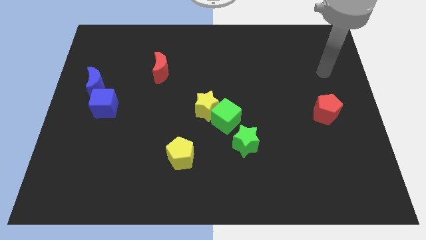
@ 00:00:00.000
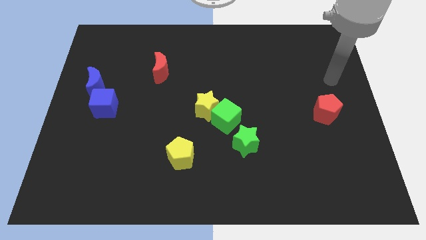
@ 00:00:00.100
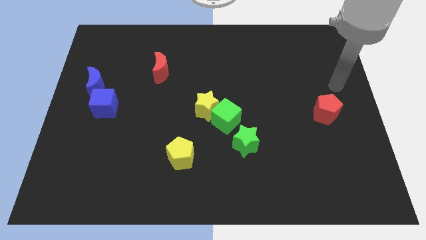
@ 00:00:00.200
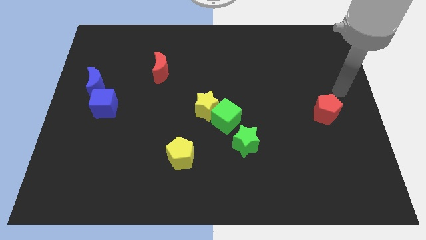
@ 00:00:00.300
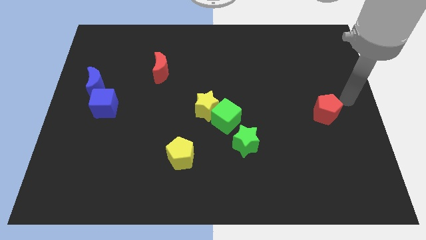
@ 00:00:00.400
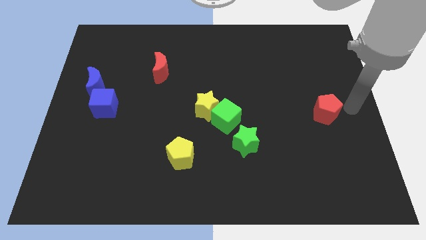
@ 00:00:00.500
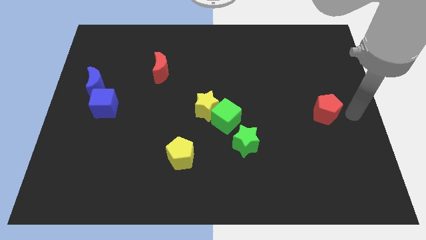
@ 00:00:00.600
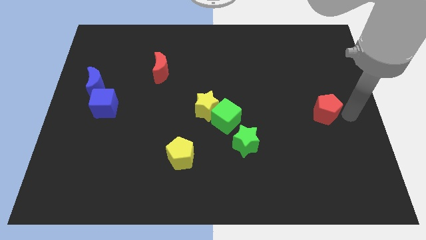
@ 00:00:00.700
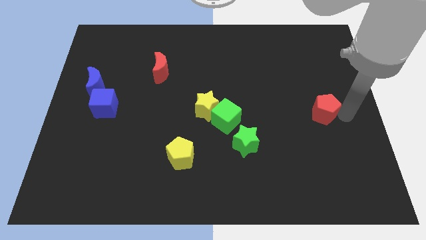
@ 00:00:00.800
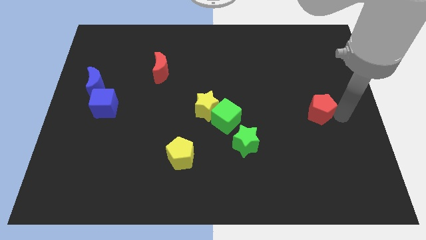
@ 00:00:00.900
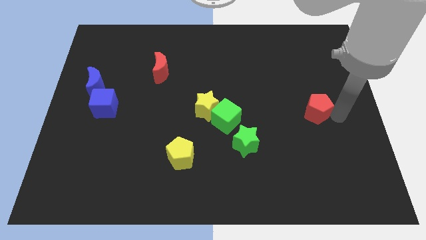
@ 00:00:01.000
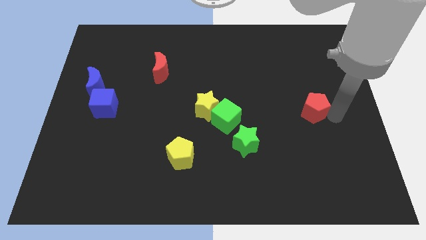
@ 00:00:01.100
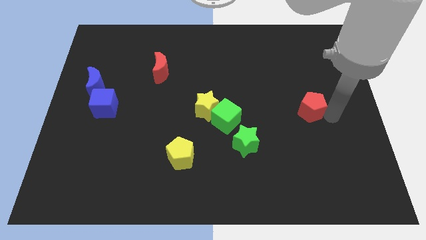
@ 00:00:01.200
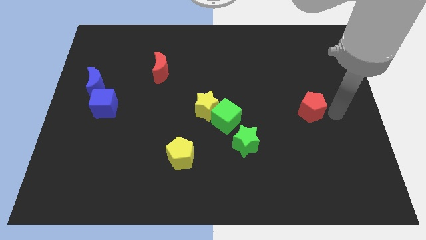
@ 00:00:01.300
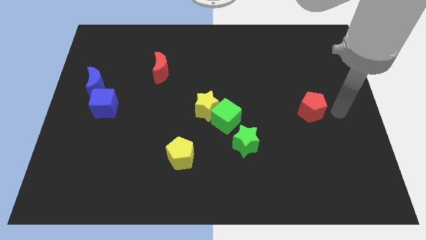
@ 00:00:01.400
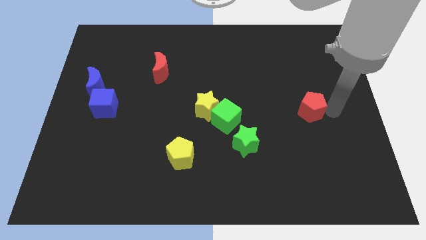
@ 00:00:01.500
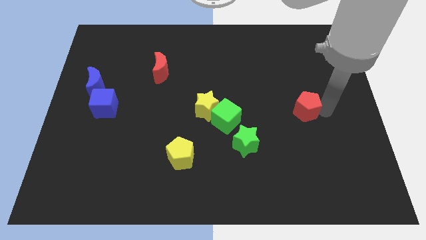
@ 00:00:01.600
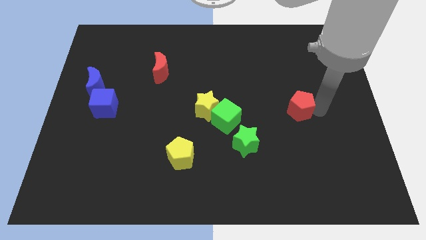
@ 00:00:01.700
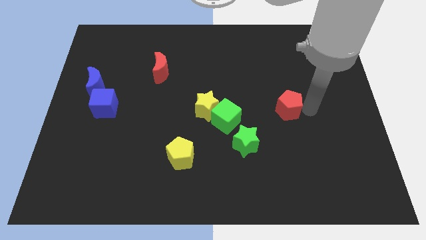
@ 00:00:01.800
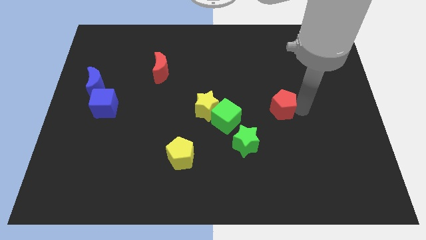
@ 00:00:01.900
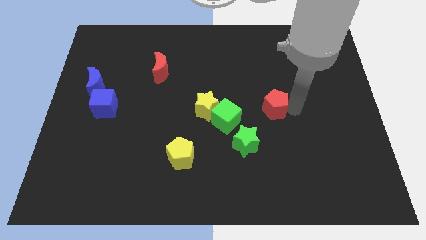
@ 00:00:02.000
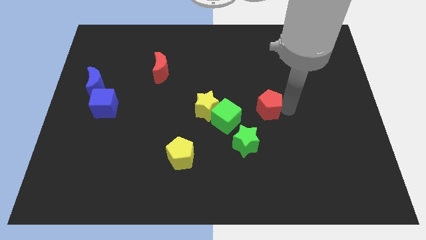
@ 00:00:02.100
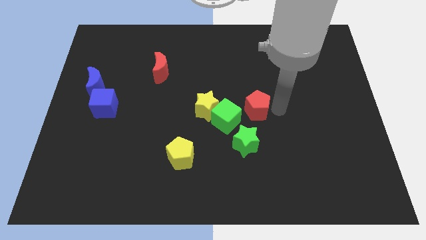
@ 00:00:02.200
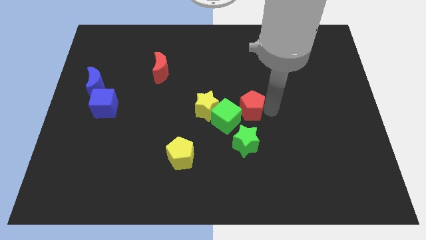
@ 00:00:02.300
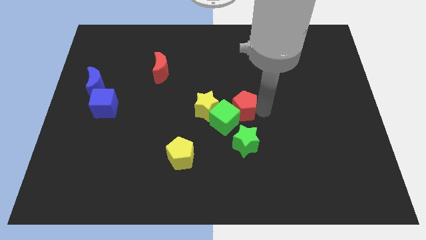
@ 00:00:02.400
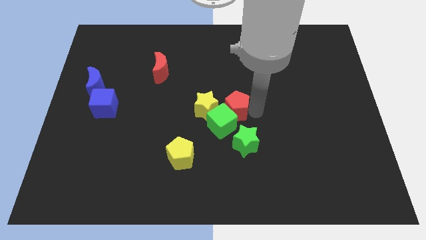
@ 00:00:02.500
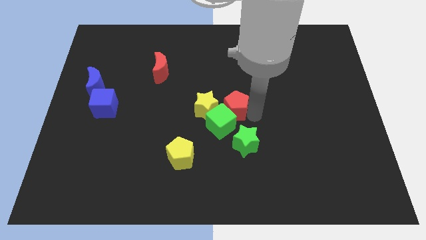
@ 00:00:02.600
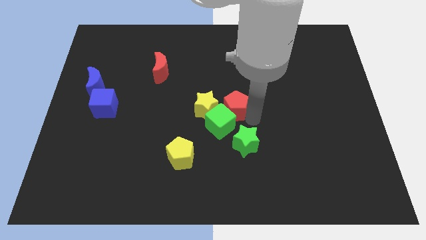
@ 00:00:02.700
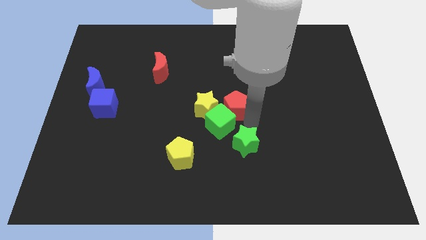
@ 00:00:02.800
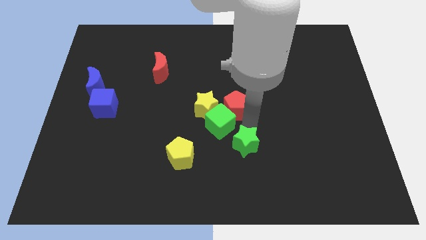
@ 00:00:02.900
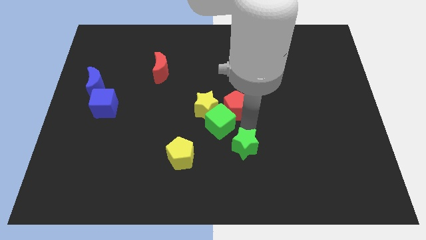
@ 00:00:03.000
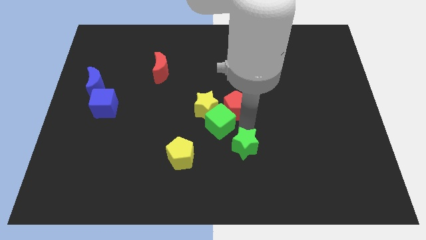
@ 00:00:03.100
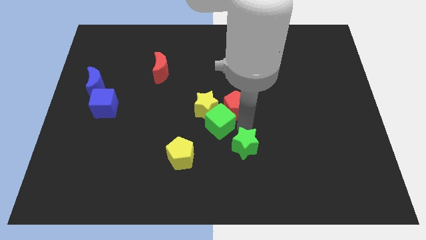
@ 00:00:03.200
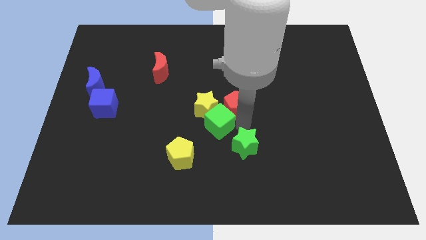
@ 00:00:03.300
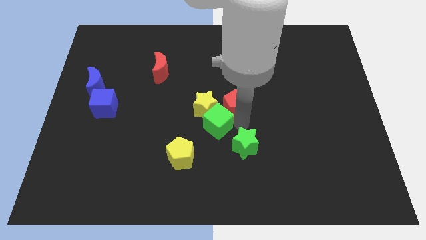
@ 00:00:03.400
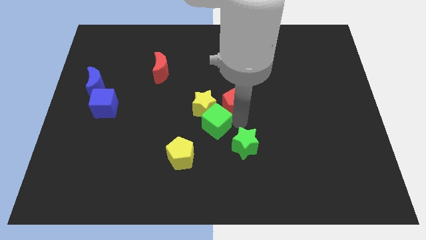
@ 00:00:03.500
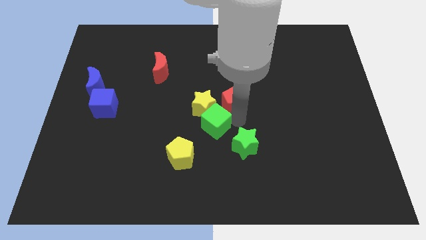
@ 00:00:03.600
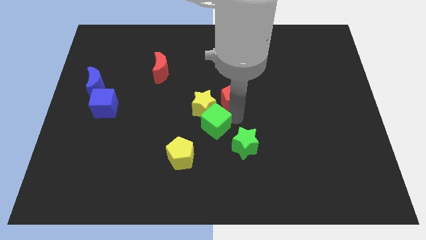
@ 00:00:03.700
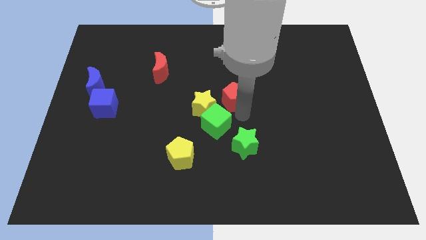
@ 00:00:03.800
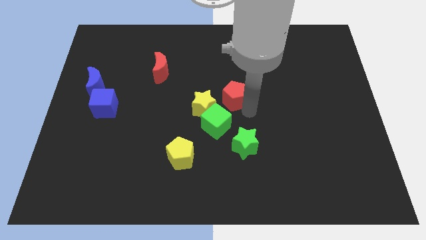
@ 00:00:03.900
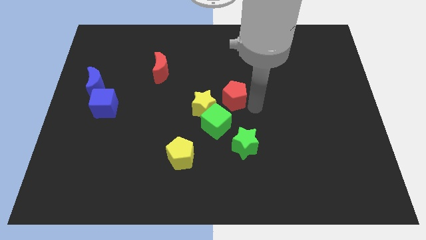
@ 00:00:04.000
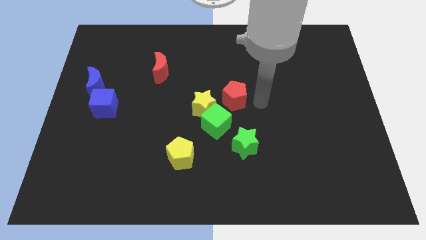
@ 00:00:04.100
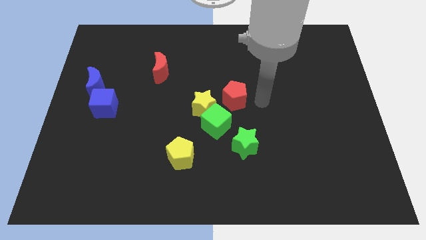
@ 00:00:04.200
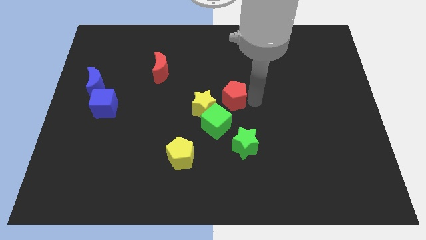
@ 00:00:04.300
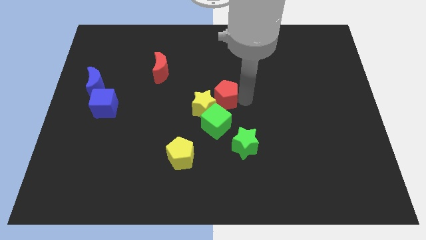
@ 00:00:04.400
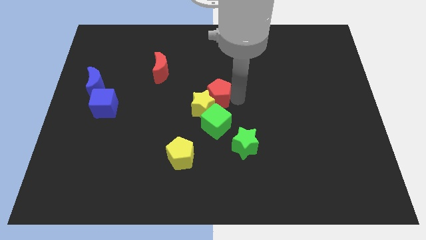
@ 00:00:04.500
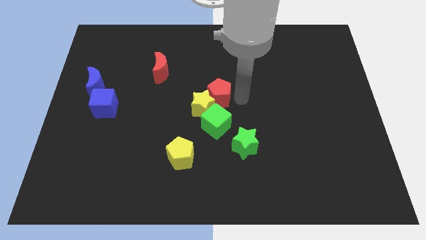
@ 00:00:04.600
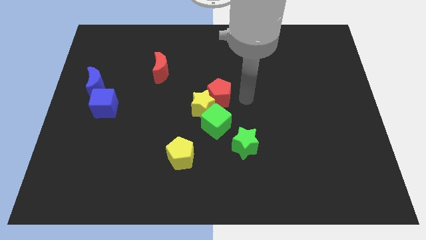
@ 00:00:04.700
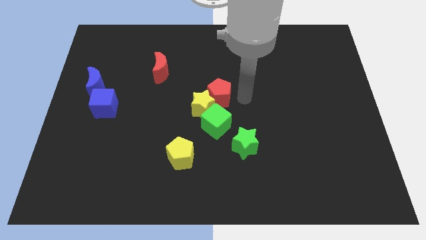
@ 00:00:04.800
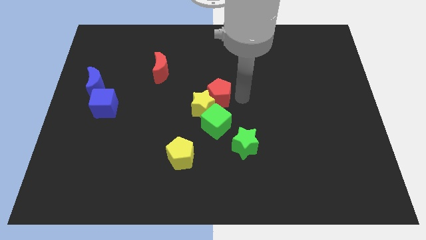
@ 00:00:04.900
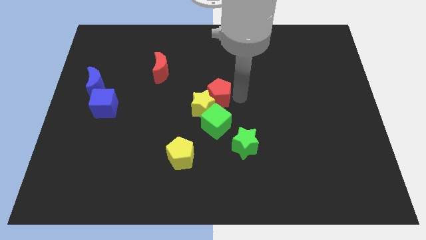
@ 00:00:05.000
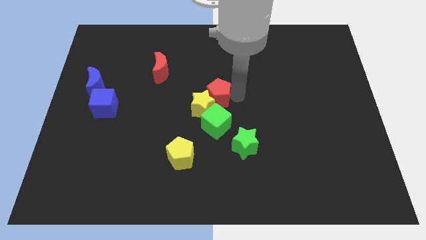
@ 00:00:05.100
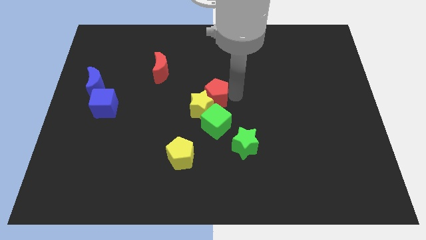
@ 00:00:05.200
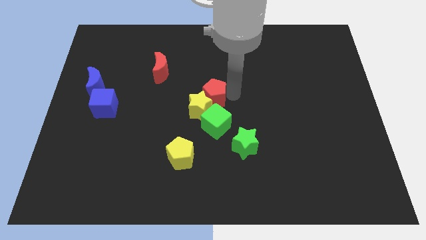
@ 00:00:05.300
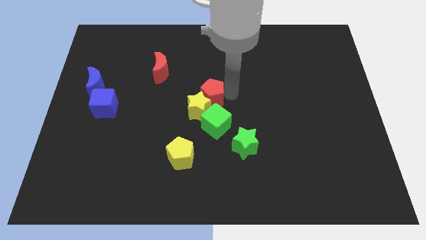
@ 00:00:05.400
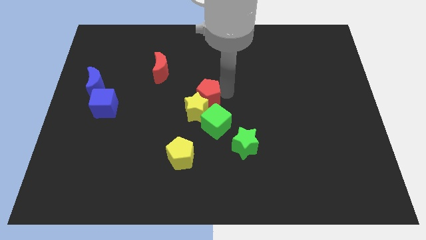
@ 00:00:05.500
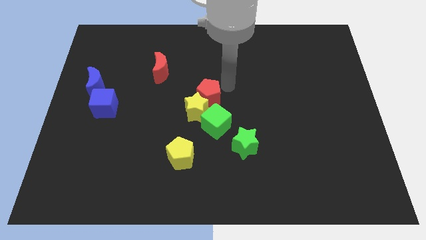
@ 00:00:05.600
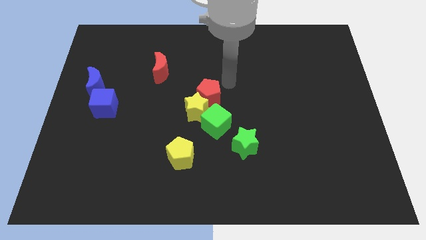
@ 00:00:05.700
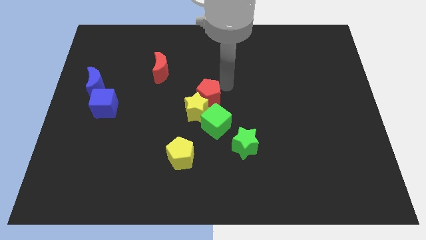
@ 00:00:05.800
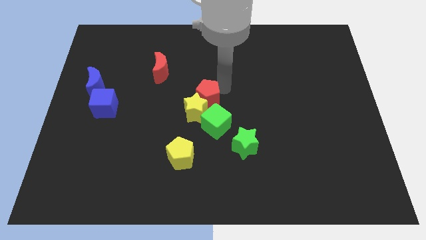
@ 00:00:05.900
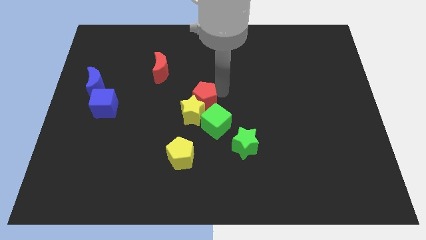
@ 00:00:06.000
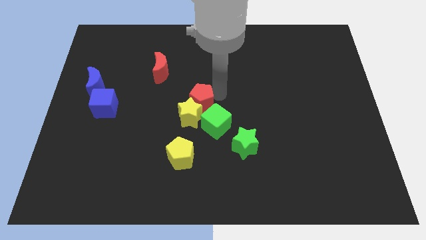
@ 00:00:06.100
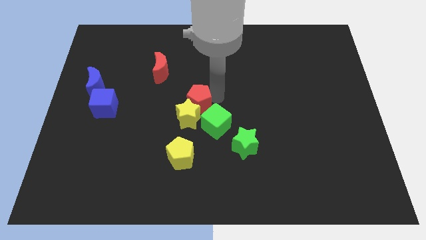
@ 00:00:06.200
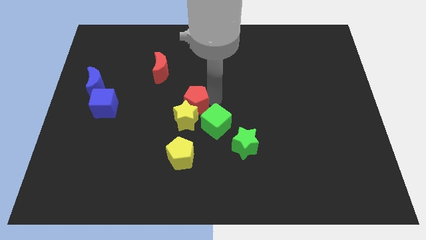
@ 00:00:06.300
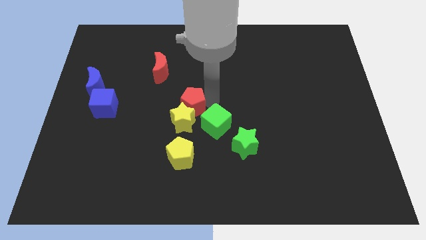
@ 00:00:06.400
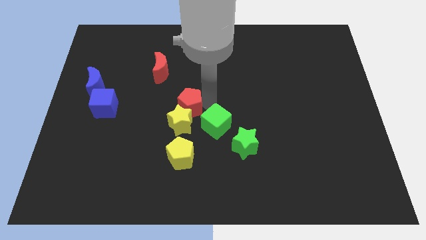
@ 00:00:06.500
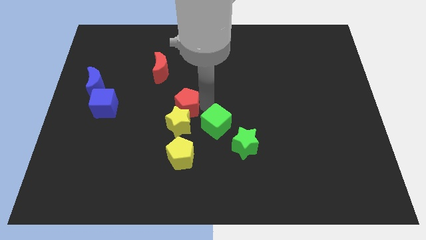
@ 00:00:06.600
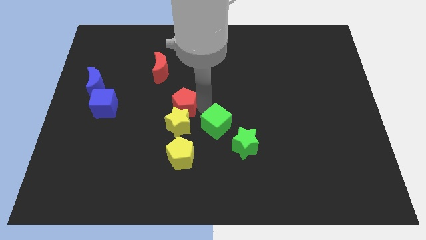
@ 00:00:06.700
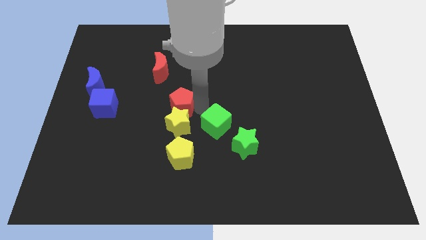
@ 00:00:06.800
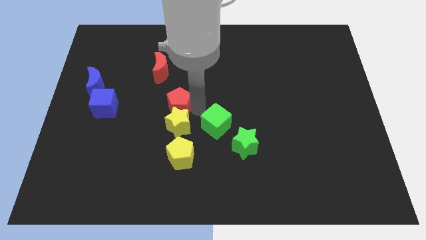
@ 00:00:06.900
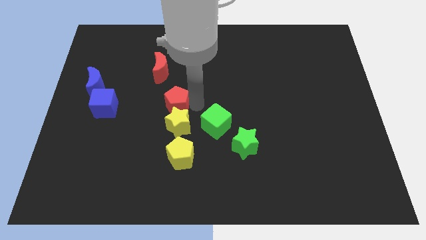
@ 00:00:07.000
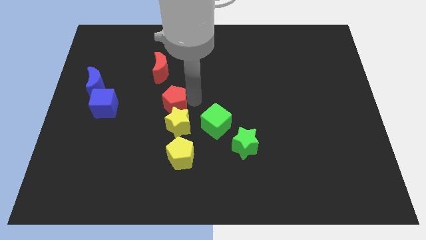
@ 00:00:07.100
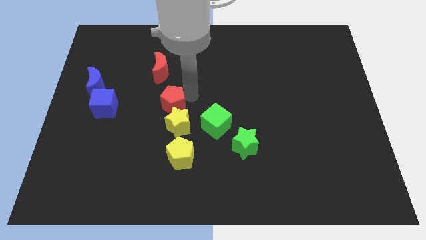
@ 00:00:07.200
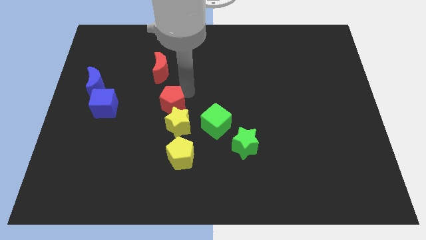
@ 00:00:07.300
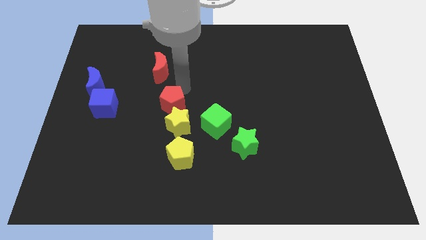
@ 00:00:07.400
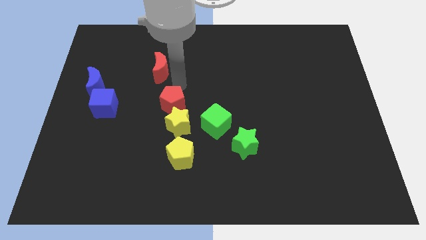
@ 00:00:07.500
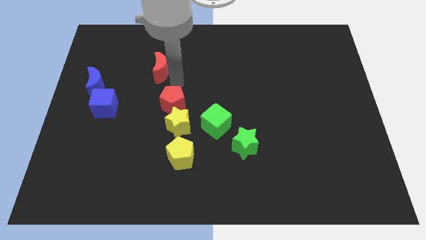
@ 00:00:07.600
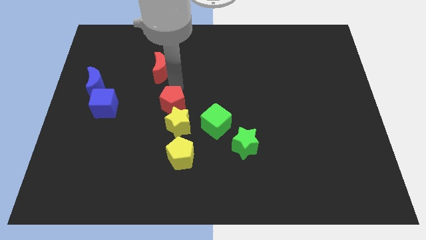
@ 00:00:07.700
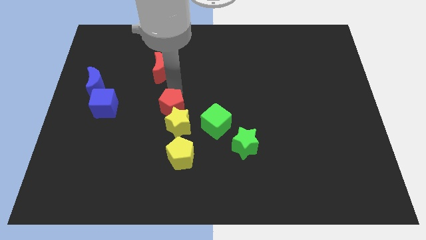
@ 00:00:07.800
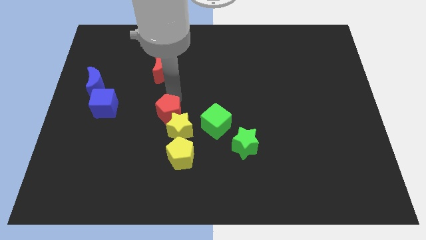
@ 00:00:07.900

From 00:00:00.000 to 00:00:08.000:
put the red pentagon left of the green cube
